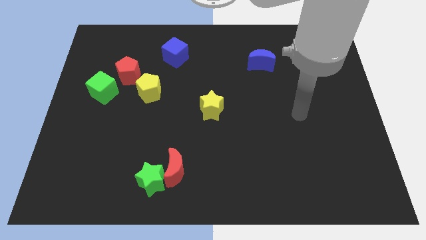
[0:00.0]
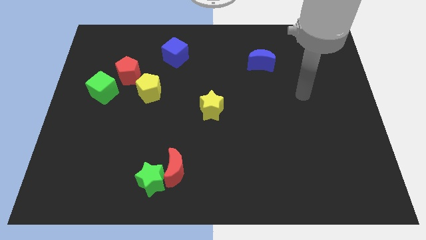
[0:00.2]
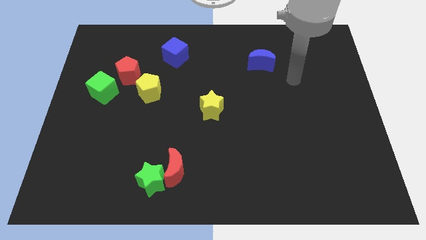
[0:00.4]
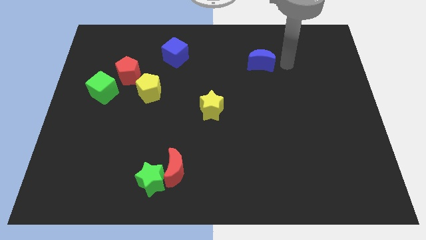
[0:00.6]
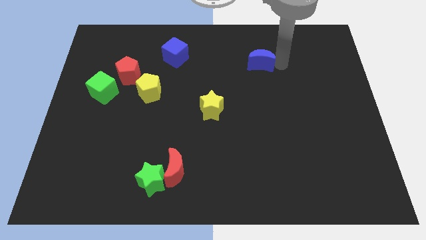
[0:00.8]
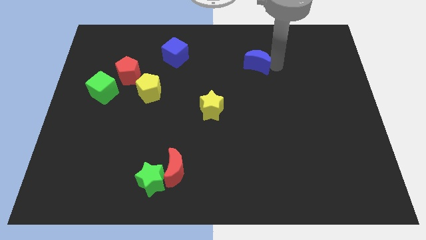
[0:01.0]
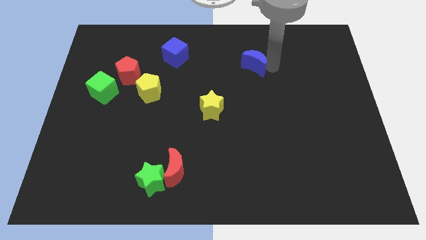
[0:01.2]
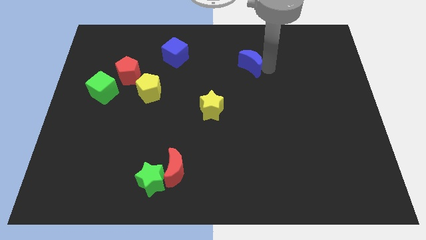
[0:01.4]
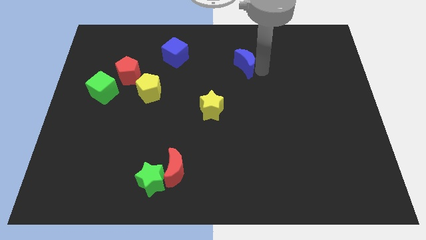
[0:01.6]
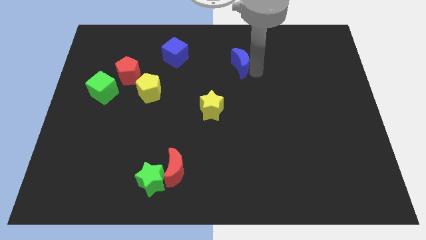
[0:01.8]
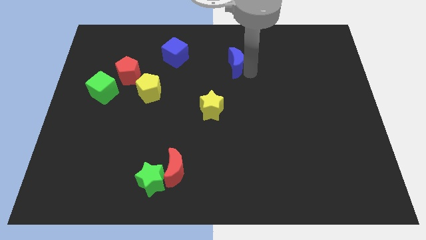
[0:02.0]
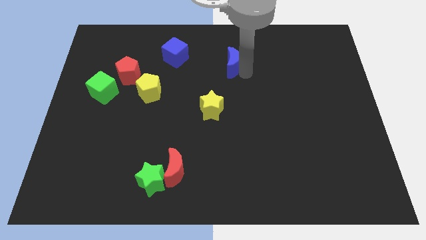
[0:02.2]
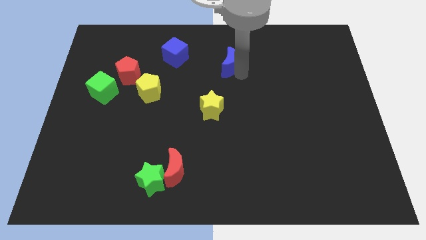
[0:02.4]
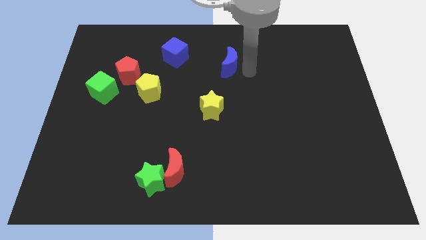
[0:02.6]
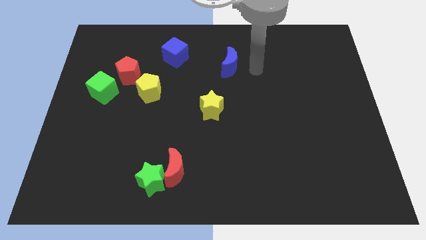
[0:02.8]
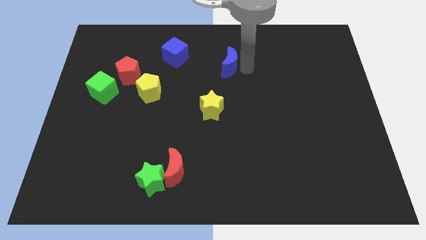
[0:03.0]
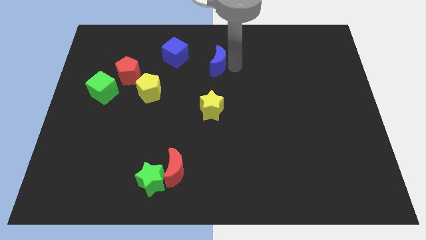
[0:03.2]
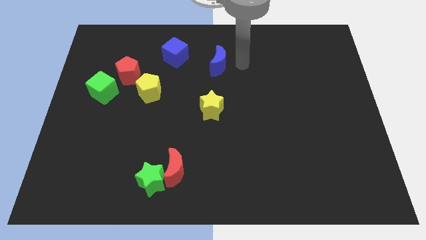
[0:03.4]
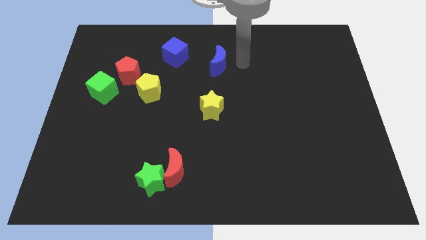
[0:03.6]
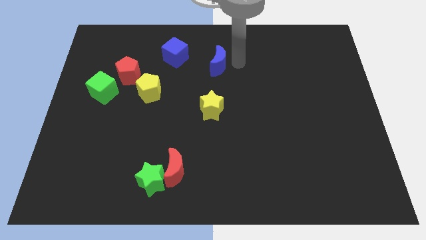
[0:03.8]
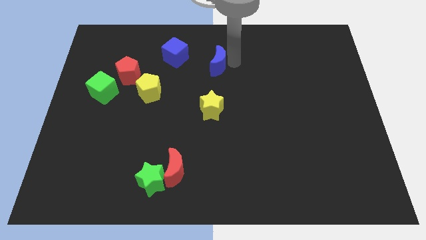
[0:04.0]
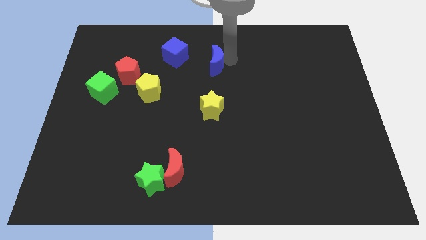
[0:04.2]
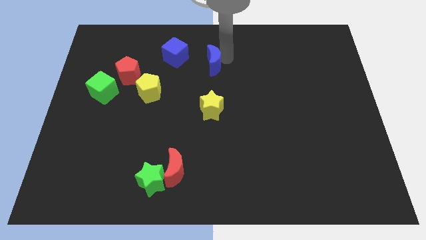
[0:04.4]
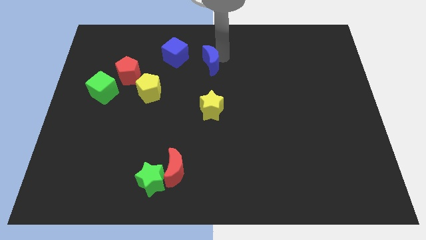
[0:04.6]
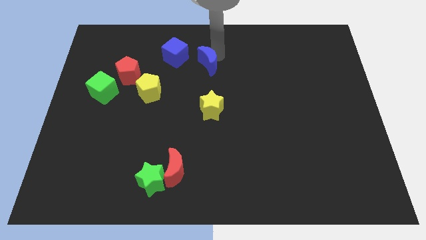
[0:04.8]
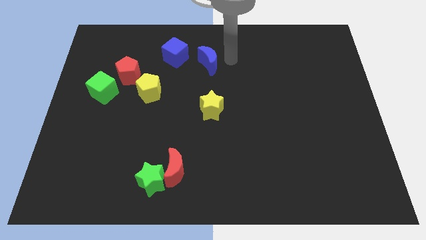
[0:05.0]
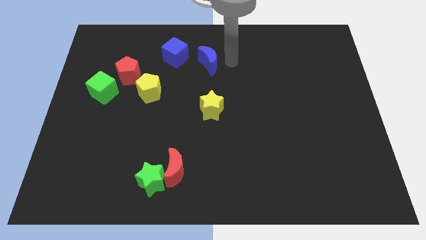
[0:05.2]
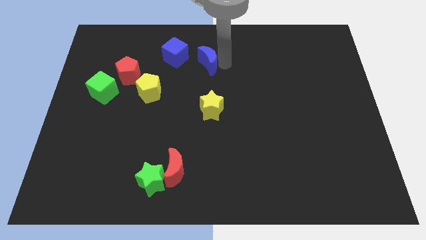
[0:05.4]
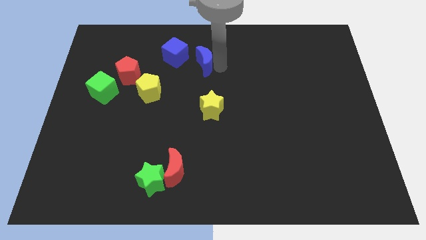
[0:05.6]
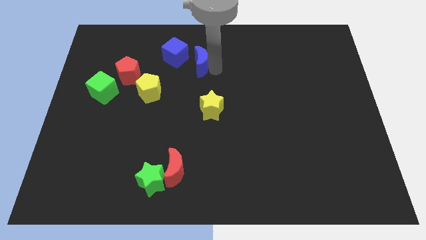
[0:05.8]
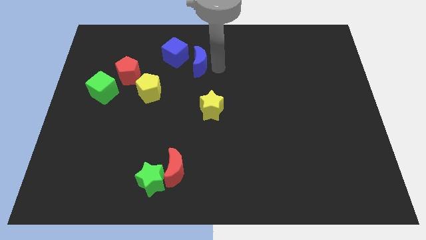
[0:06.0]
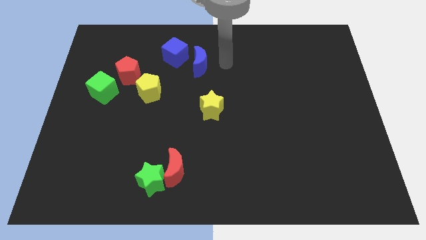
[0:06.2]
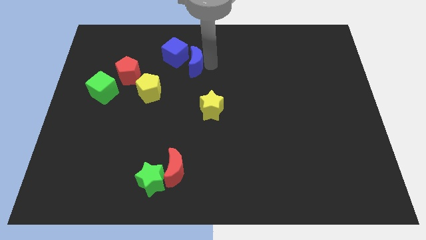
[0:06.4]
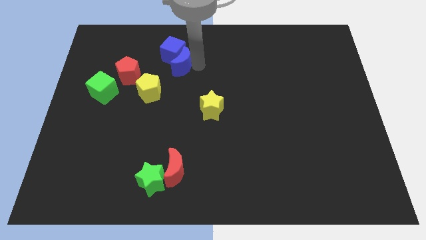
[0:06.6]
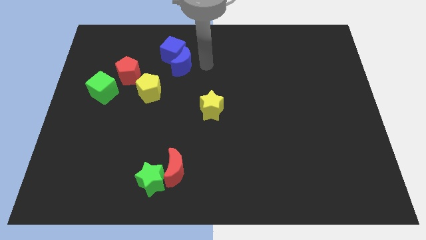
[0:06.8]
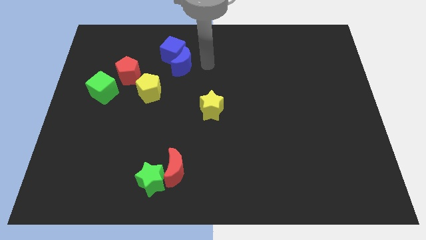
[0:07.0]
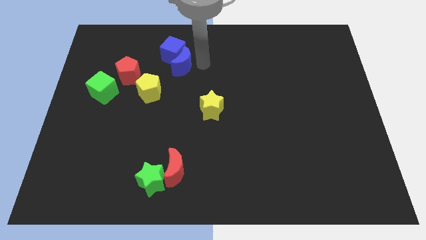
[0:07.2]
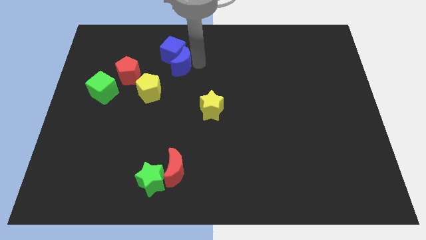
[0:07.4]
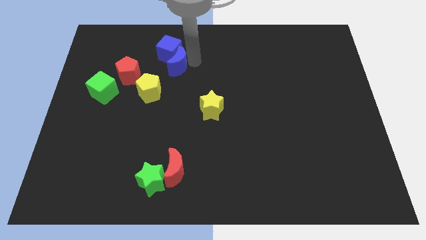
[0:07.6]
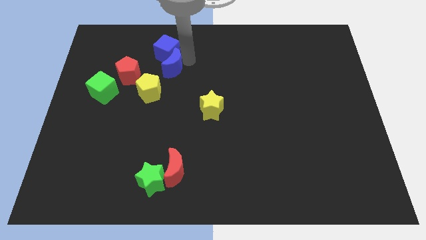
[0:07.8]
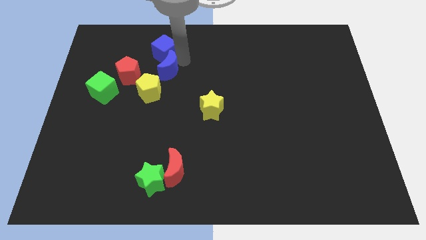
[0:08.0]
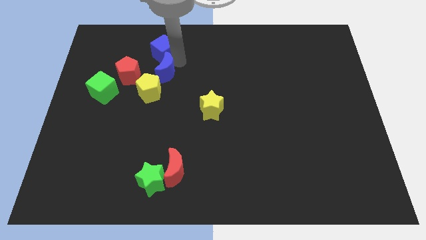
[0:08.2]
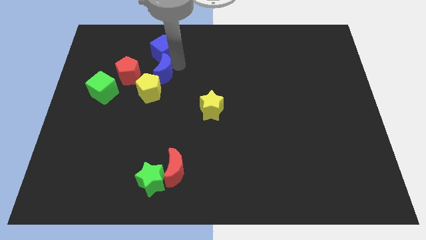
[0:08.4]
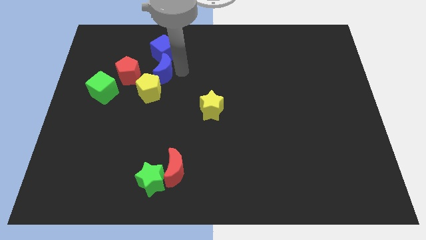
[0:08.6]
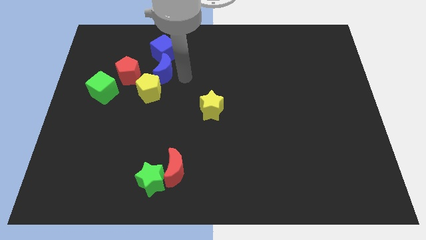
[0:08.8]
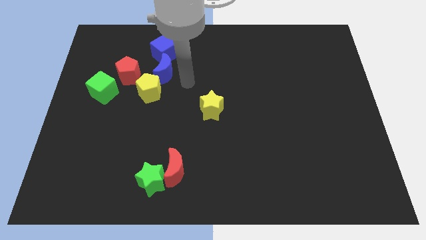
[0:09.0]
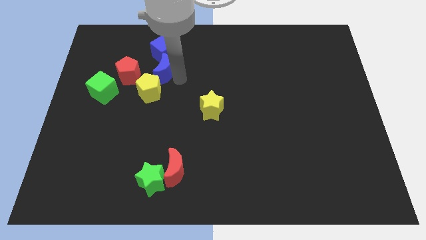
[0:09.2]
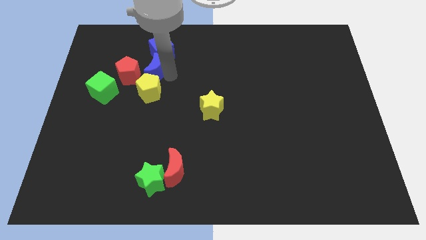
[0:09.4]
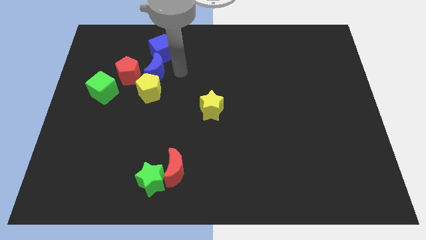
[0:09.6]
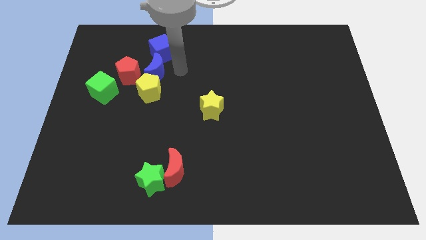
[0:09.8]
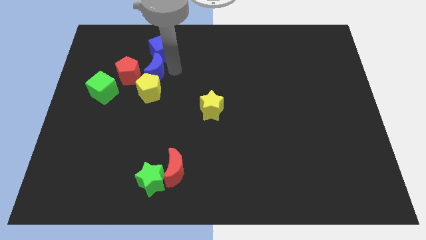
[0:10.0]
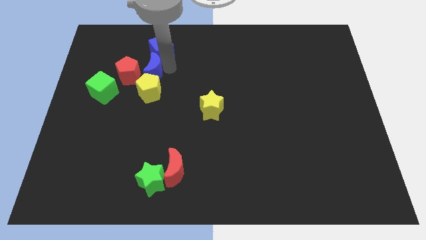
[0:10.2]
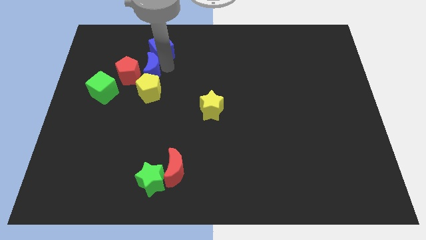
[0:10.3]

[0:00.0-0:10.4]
slide the blue moon towards the red pentagon

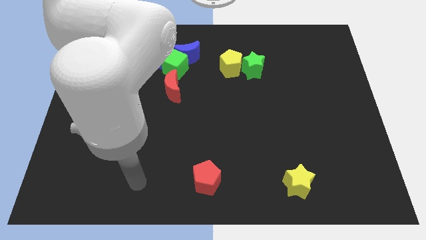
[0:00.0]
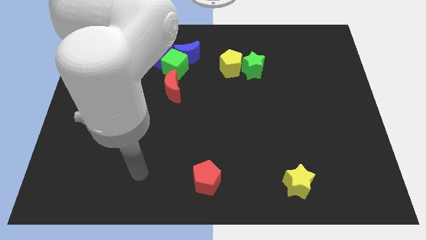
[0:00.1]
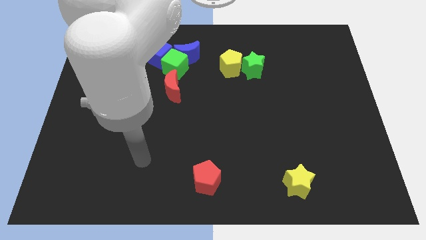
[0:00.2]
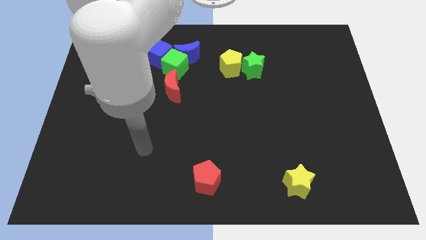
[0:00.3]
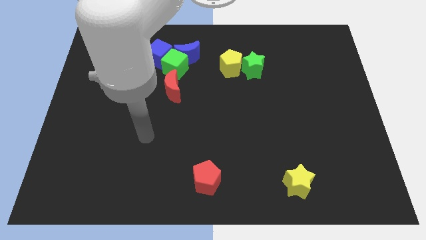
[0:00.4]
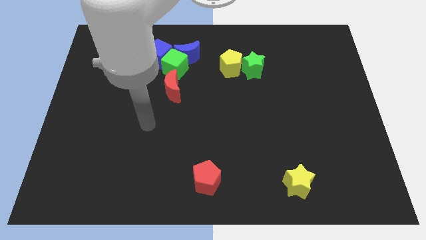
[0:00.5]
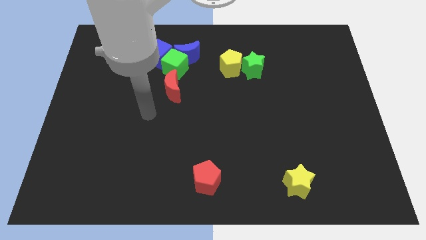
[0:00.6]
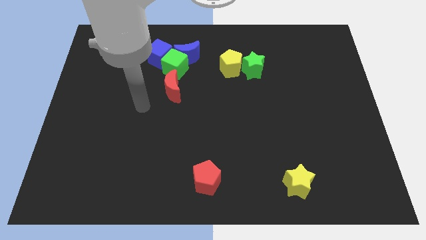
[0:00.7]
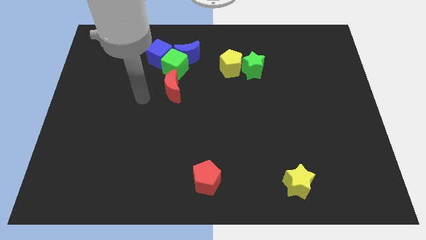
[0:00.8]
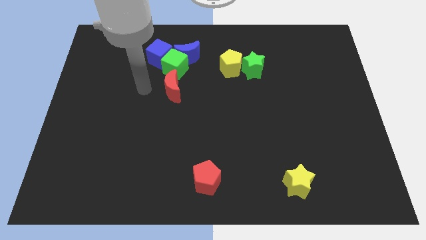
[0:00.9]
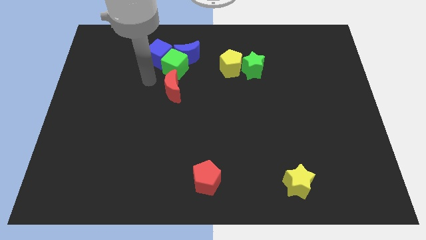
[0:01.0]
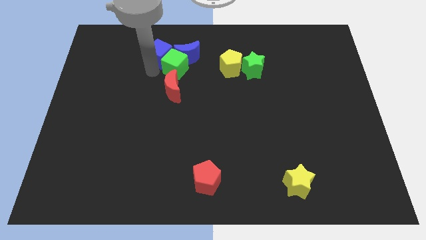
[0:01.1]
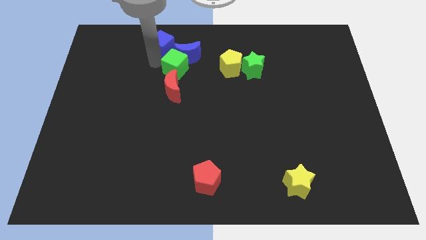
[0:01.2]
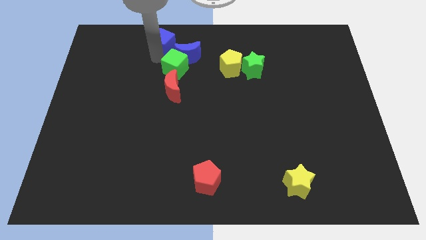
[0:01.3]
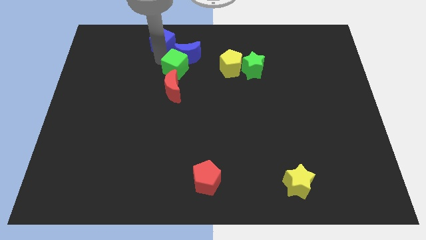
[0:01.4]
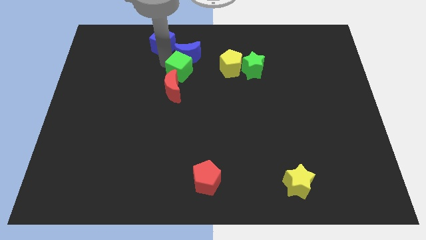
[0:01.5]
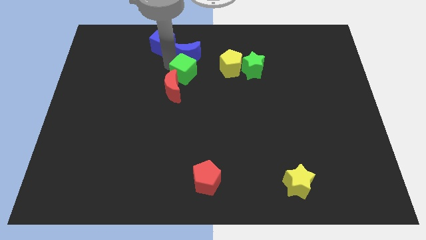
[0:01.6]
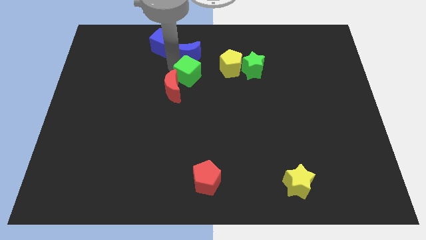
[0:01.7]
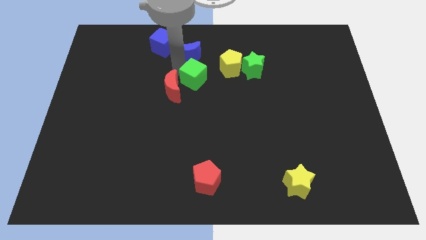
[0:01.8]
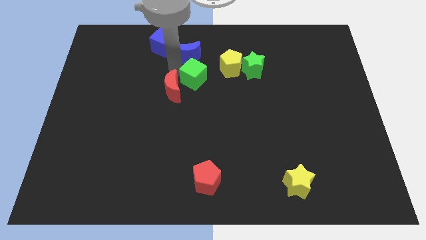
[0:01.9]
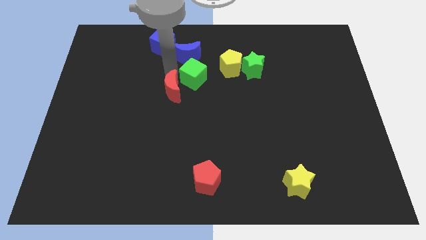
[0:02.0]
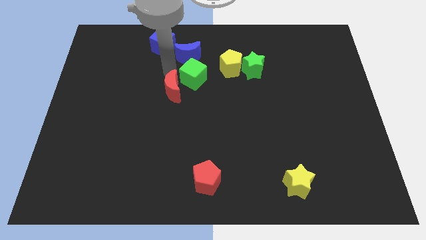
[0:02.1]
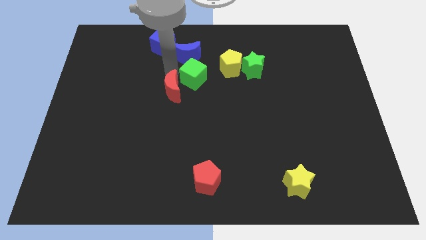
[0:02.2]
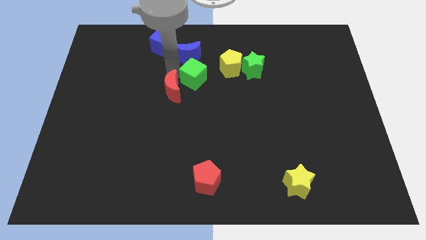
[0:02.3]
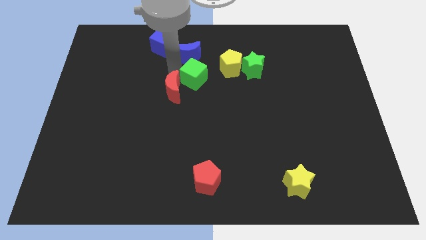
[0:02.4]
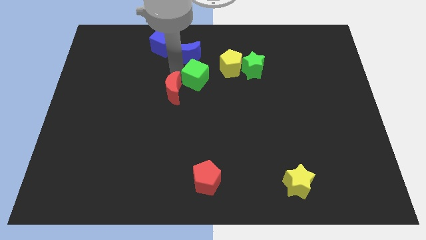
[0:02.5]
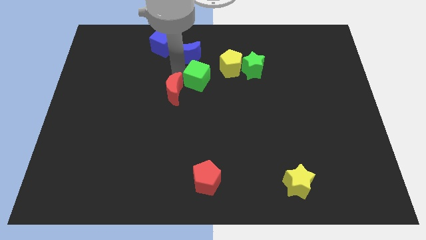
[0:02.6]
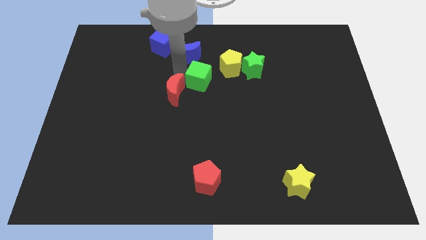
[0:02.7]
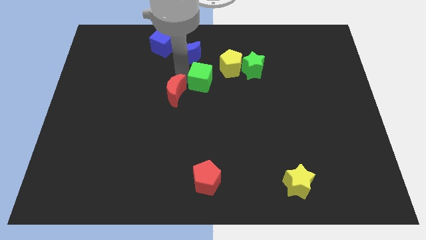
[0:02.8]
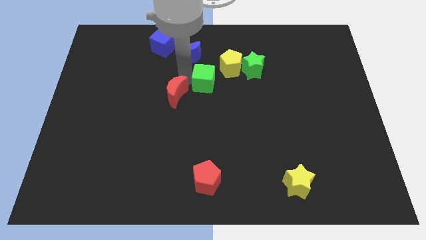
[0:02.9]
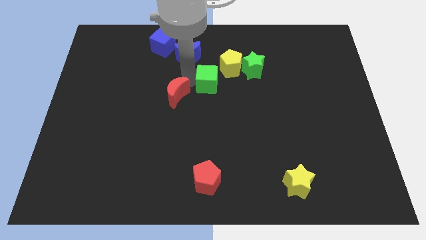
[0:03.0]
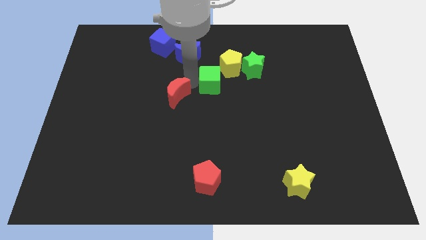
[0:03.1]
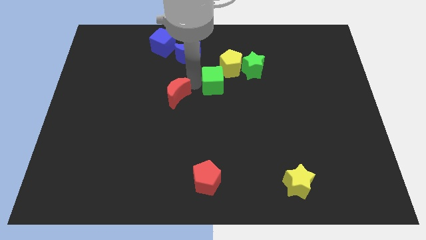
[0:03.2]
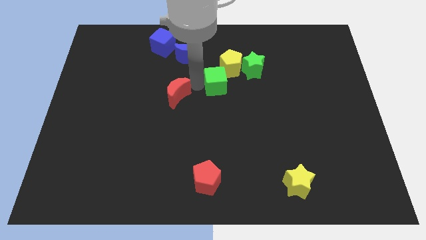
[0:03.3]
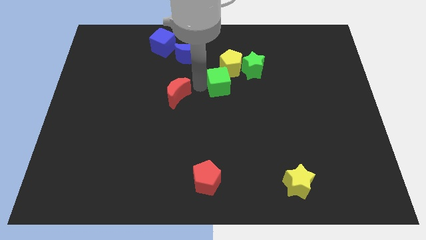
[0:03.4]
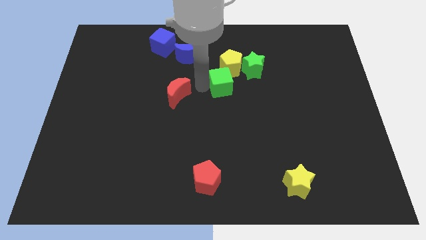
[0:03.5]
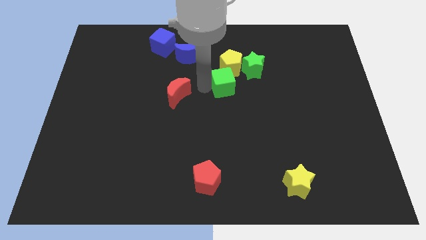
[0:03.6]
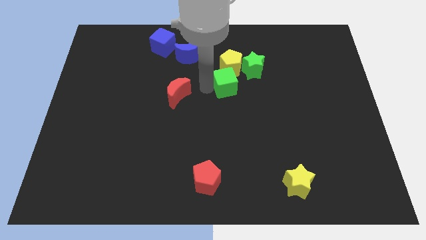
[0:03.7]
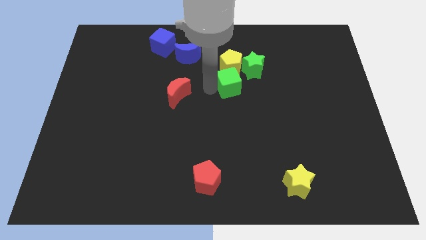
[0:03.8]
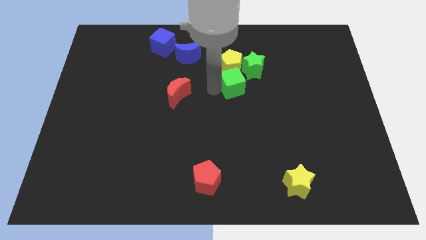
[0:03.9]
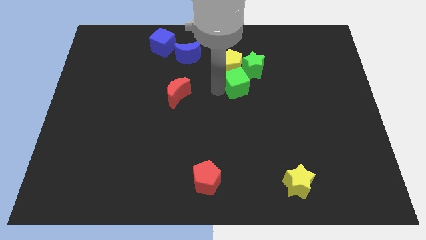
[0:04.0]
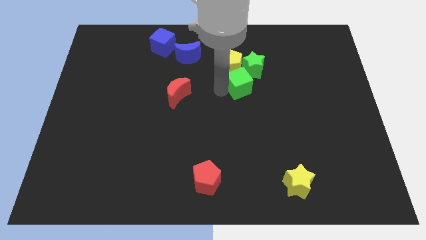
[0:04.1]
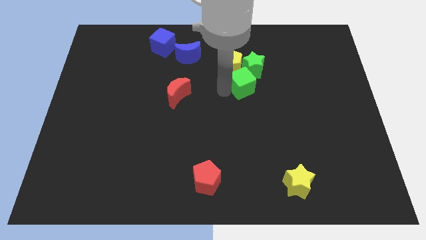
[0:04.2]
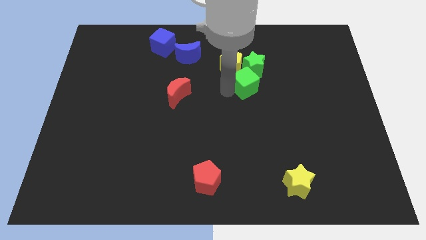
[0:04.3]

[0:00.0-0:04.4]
push the green cube to the green star
